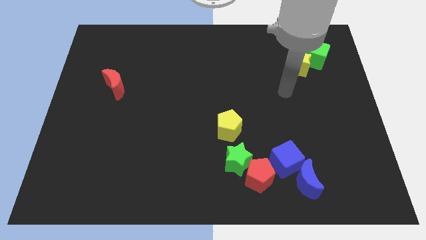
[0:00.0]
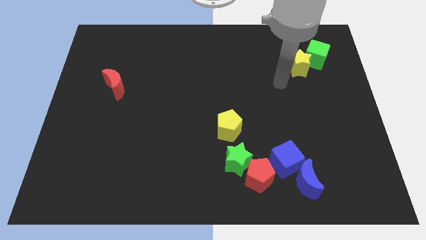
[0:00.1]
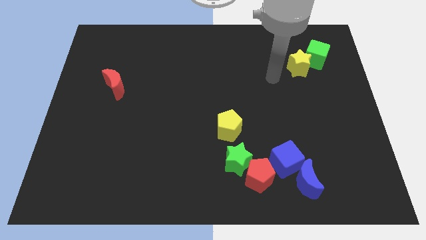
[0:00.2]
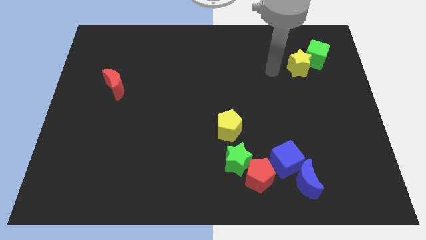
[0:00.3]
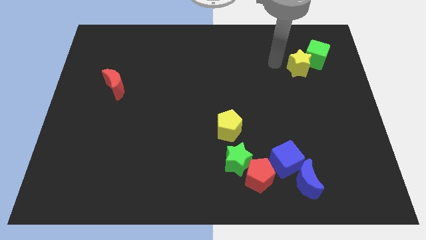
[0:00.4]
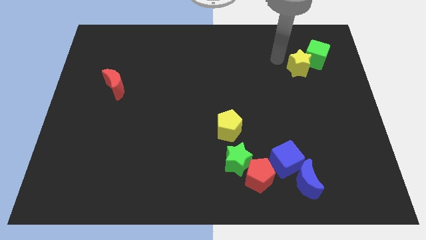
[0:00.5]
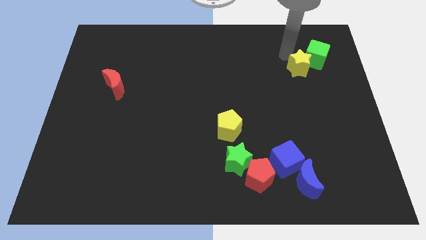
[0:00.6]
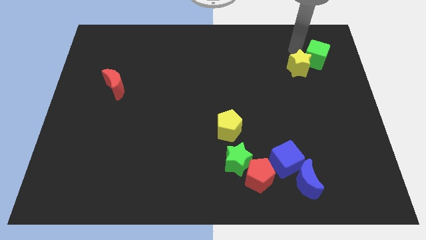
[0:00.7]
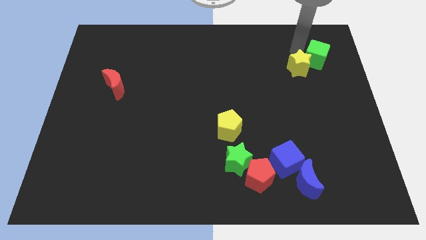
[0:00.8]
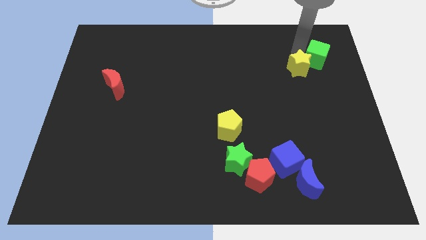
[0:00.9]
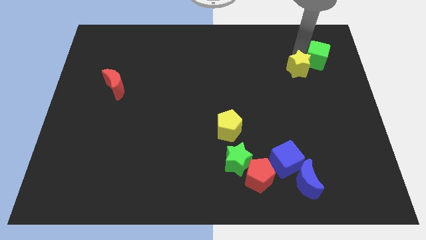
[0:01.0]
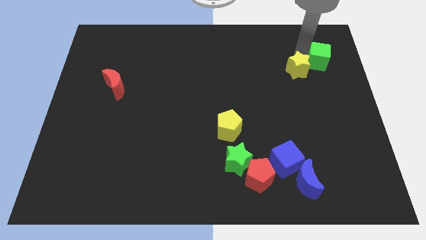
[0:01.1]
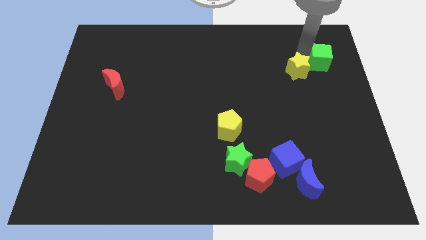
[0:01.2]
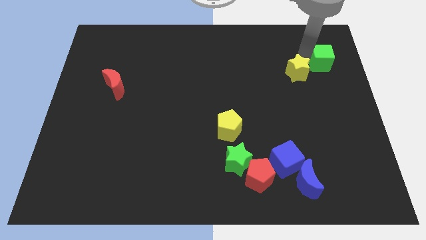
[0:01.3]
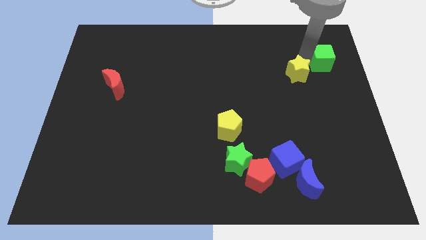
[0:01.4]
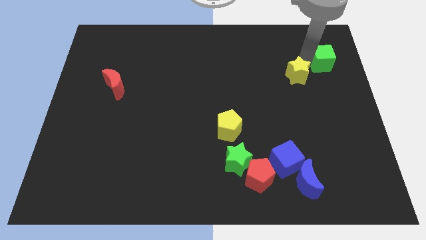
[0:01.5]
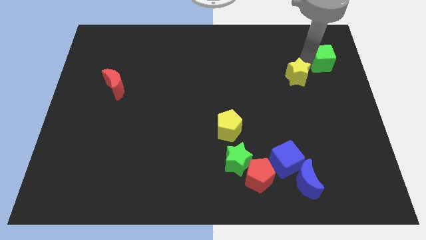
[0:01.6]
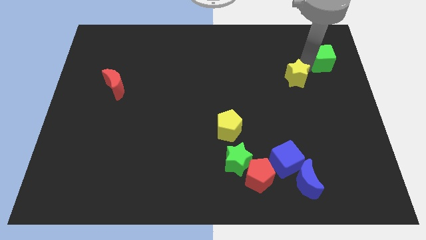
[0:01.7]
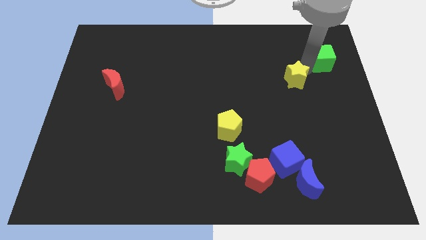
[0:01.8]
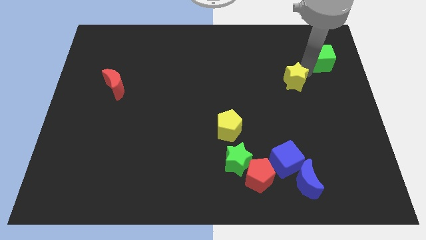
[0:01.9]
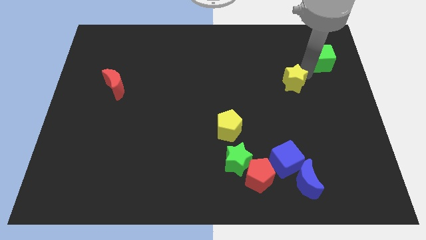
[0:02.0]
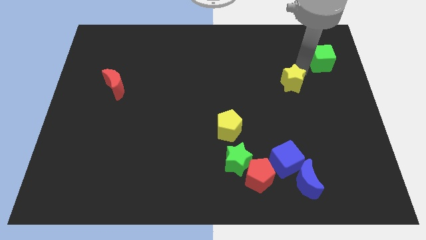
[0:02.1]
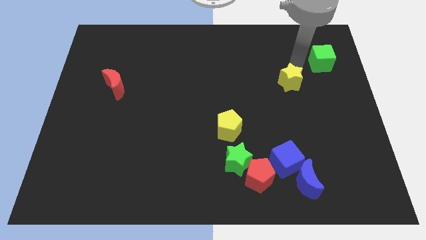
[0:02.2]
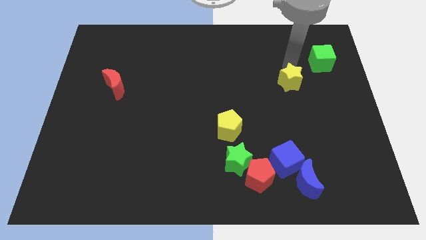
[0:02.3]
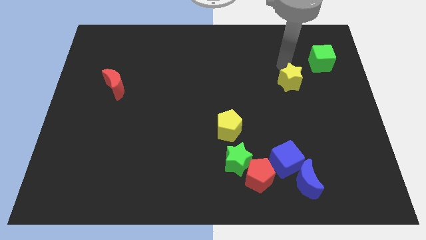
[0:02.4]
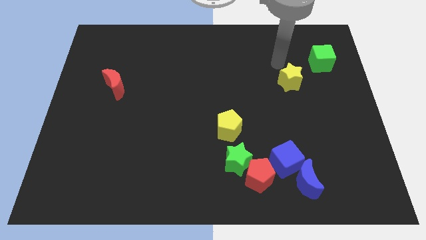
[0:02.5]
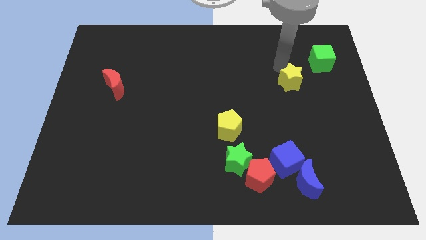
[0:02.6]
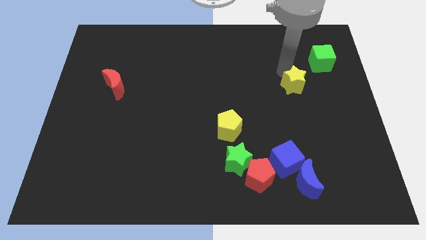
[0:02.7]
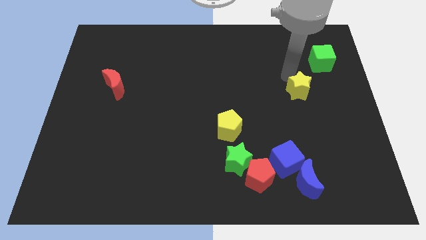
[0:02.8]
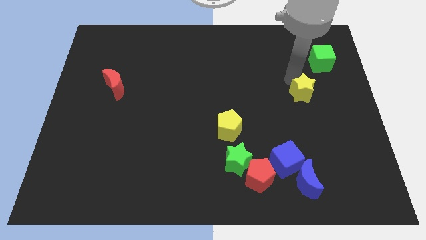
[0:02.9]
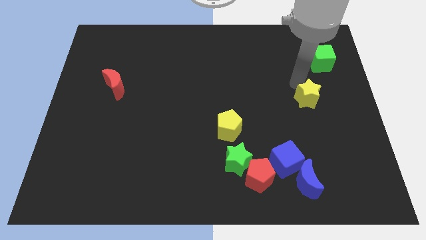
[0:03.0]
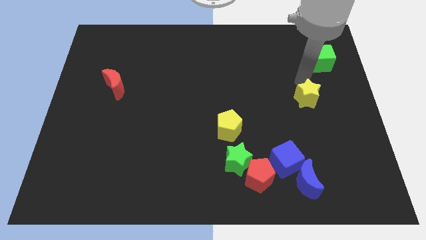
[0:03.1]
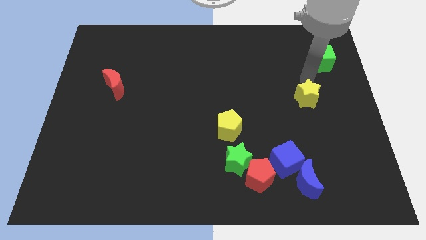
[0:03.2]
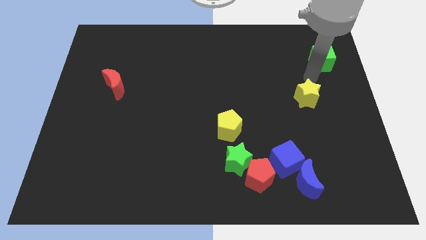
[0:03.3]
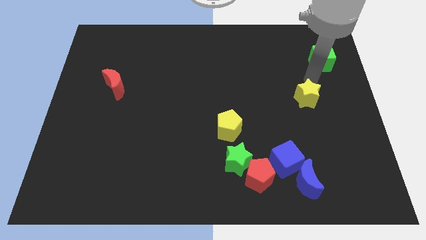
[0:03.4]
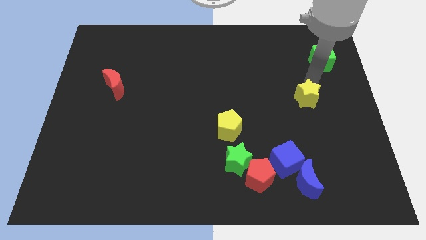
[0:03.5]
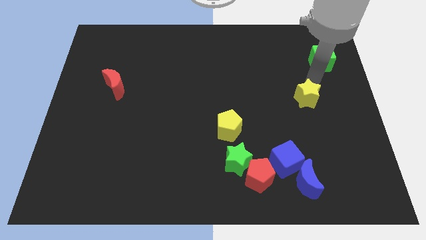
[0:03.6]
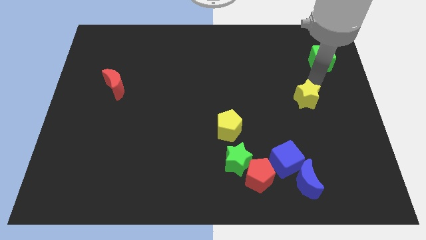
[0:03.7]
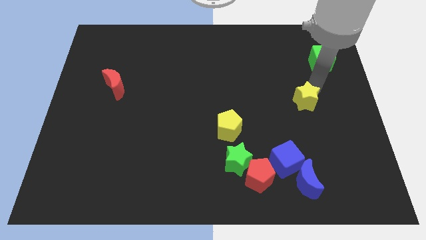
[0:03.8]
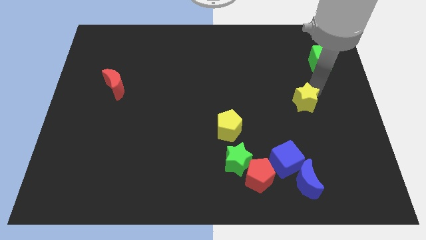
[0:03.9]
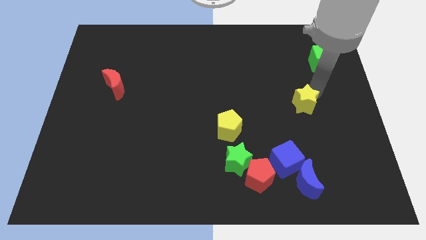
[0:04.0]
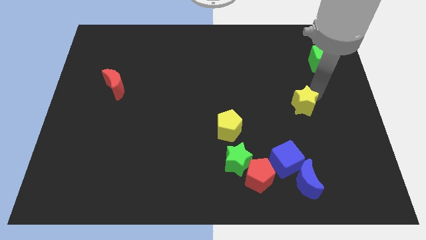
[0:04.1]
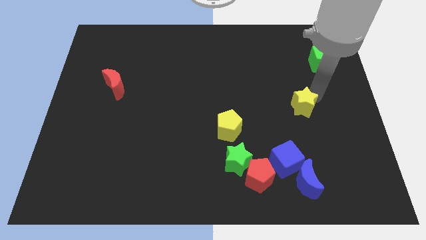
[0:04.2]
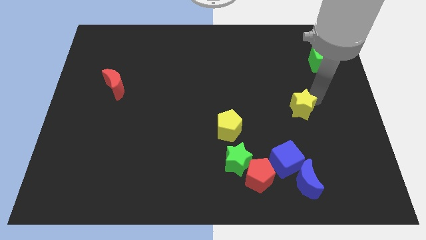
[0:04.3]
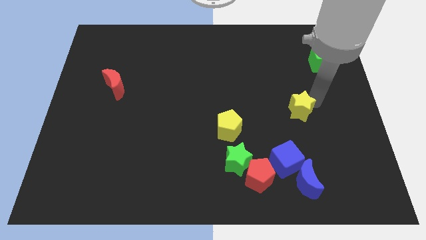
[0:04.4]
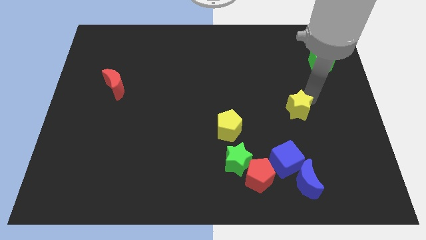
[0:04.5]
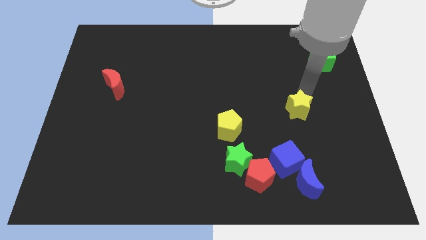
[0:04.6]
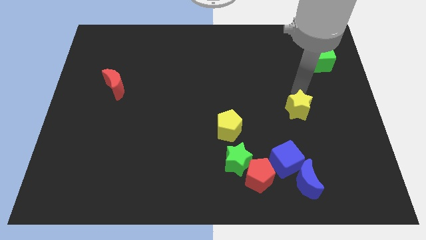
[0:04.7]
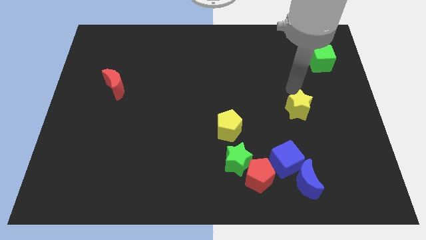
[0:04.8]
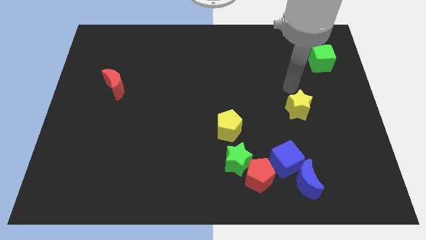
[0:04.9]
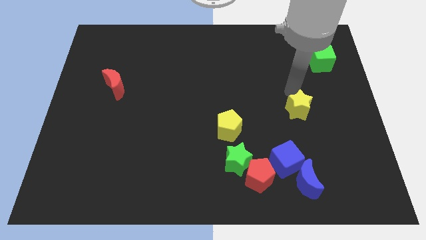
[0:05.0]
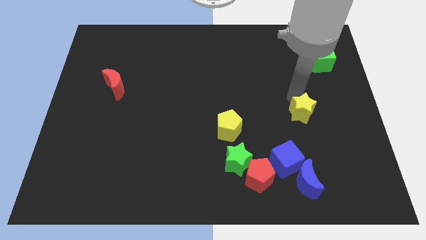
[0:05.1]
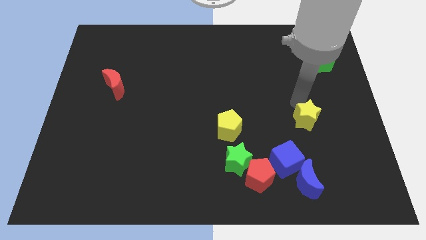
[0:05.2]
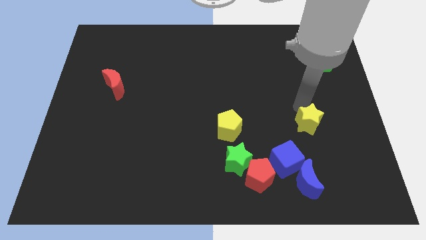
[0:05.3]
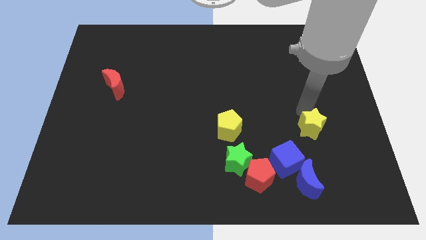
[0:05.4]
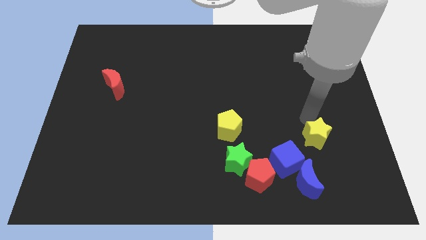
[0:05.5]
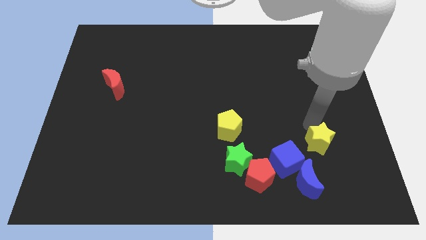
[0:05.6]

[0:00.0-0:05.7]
push the yellow star diagonally up and to the right of the blue moon
